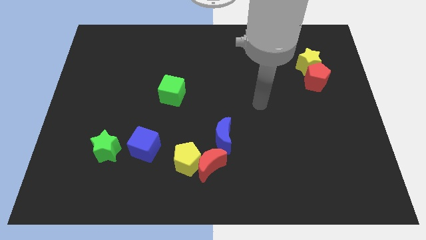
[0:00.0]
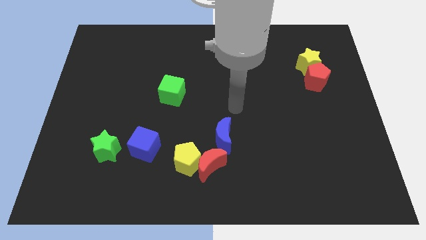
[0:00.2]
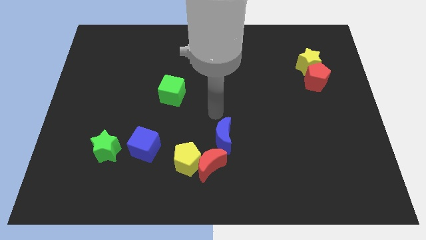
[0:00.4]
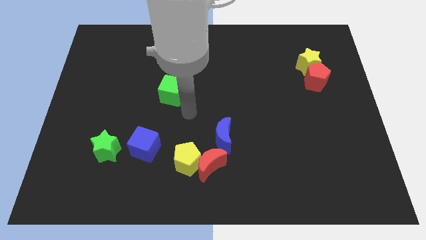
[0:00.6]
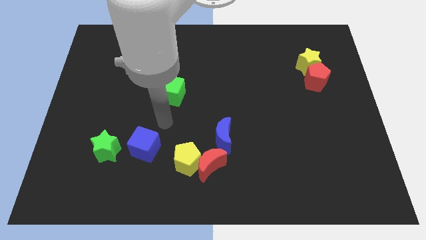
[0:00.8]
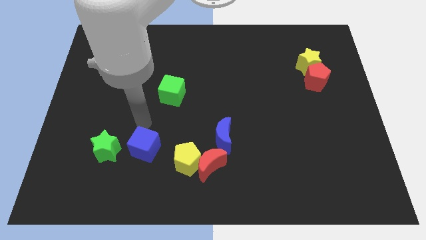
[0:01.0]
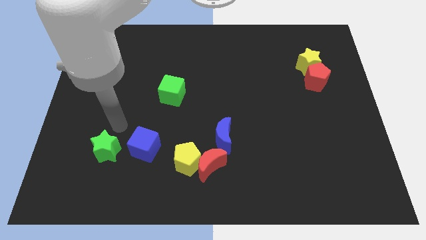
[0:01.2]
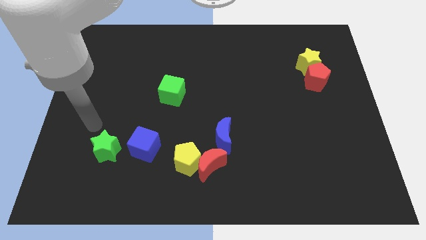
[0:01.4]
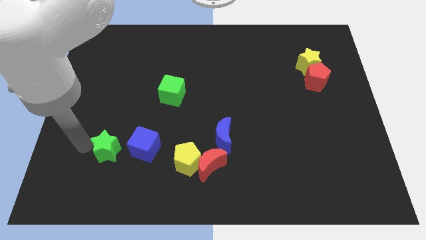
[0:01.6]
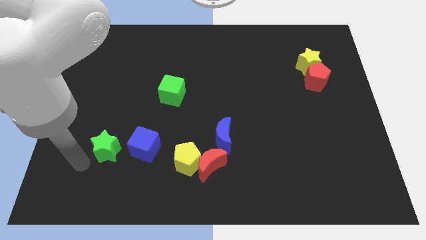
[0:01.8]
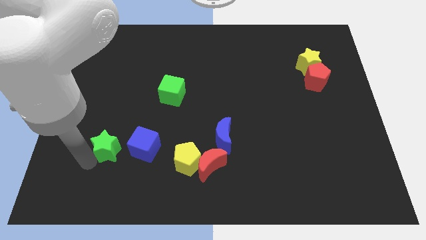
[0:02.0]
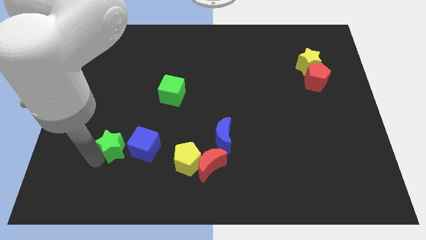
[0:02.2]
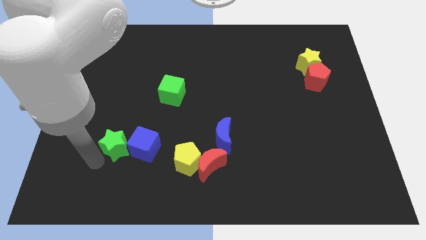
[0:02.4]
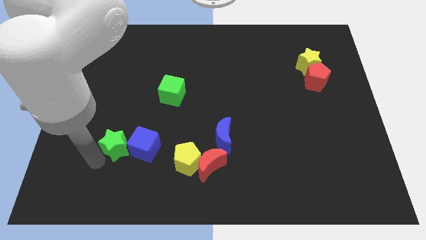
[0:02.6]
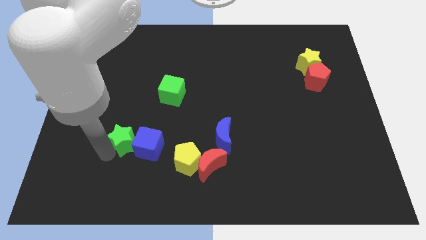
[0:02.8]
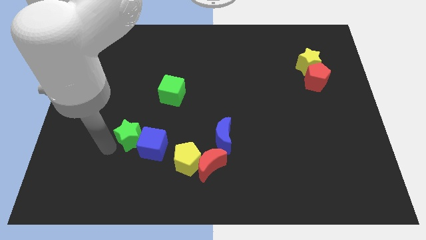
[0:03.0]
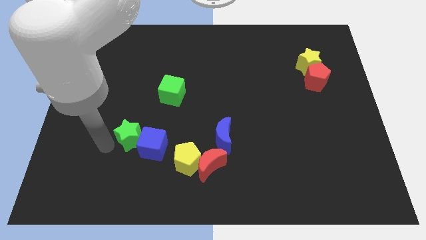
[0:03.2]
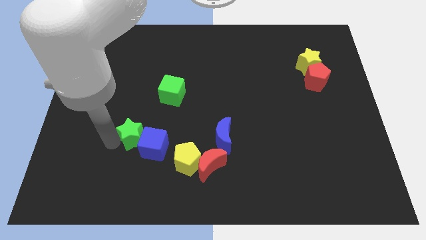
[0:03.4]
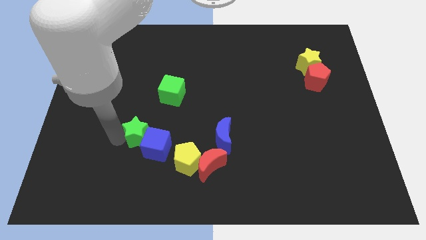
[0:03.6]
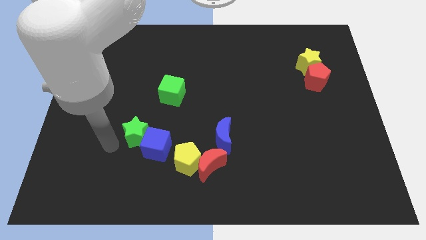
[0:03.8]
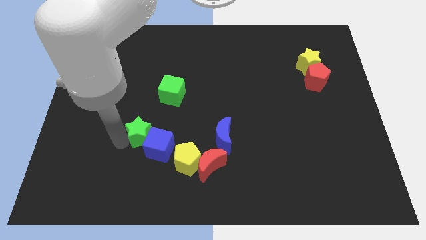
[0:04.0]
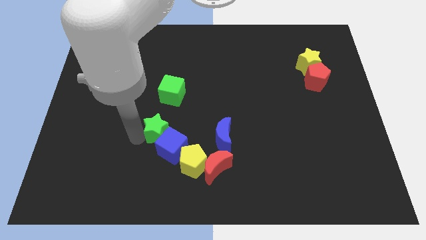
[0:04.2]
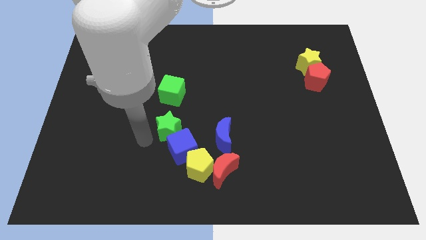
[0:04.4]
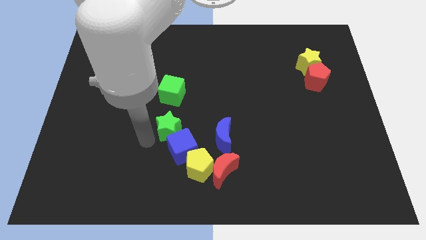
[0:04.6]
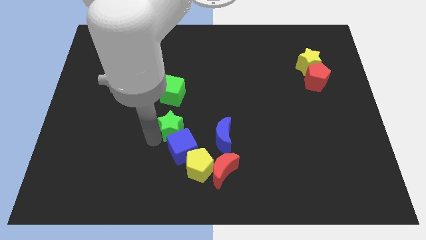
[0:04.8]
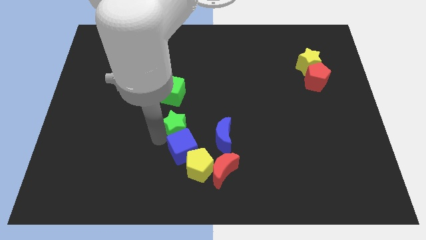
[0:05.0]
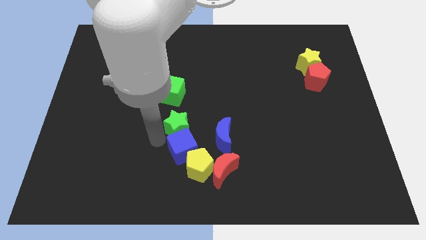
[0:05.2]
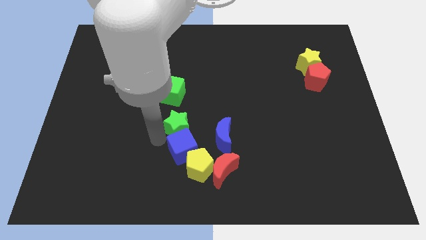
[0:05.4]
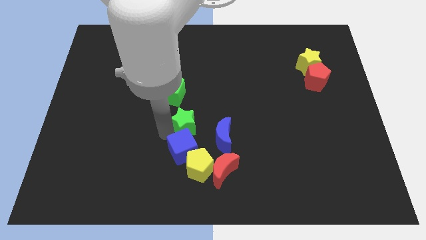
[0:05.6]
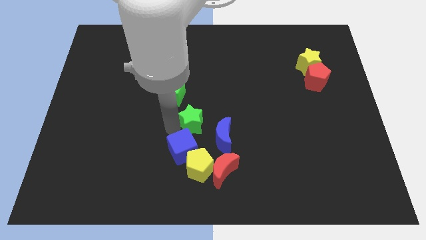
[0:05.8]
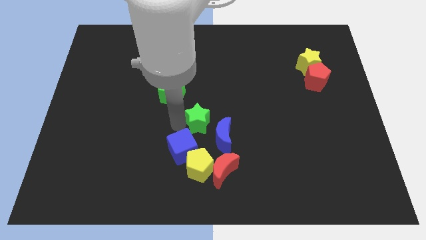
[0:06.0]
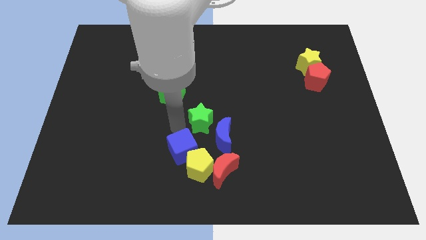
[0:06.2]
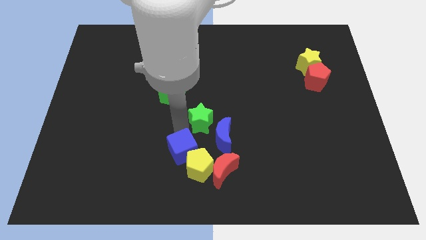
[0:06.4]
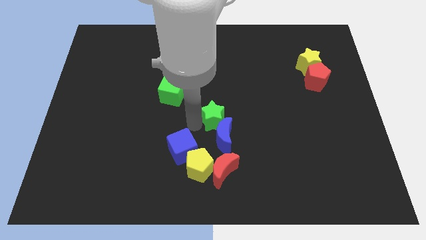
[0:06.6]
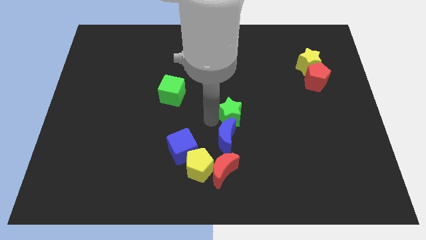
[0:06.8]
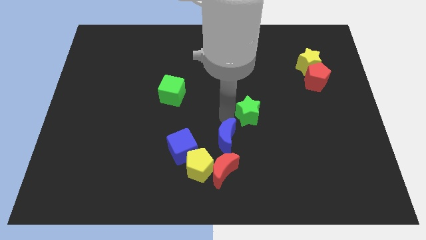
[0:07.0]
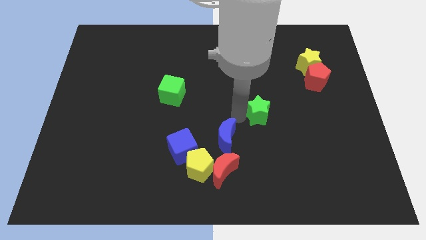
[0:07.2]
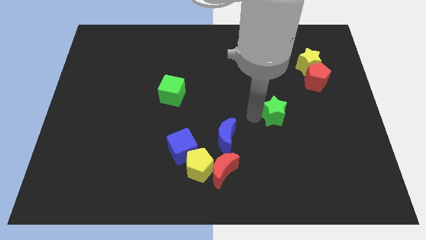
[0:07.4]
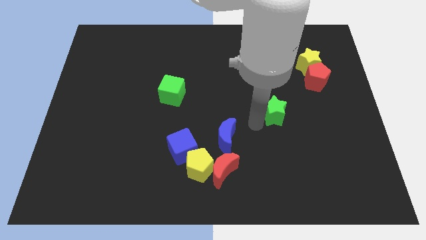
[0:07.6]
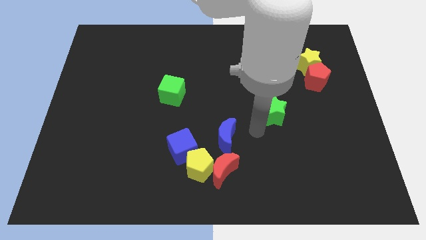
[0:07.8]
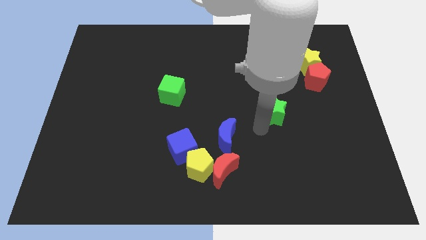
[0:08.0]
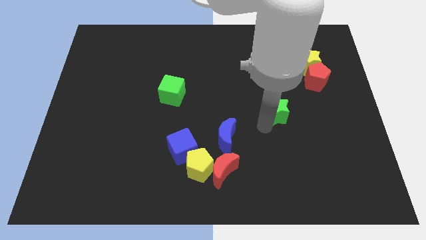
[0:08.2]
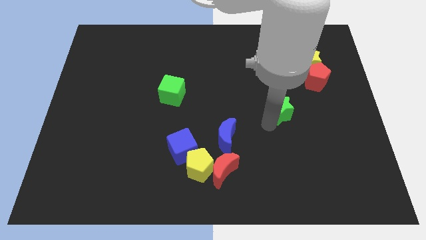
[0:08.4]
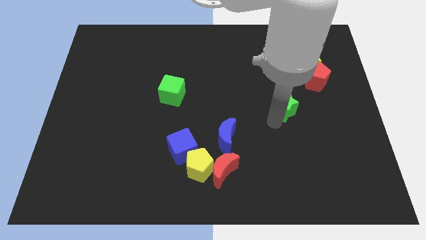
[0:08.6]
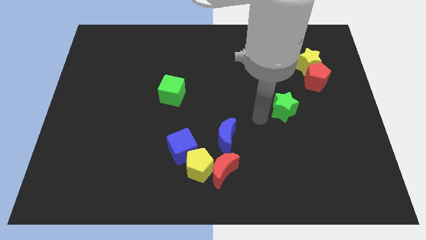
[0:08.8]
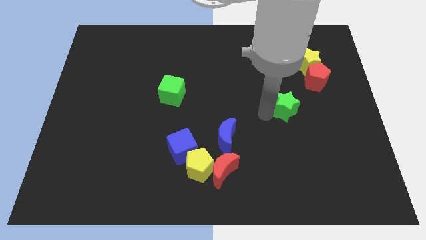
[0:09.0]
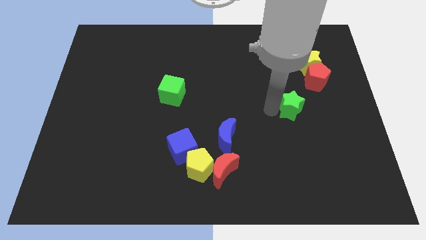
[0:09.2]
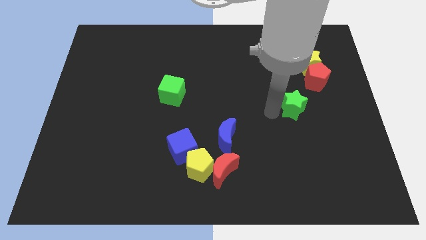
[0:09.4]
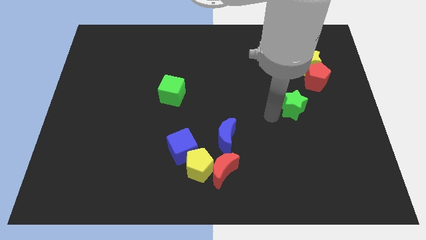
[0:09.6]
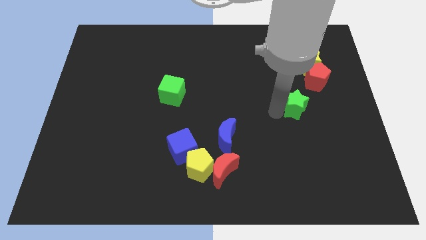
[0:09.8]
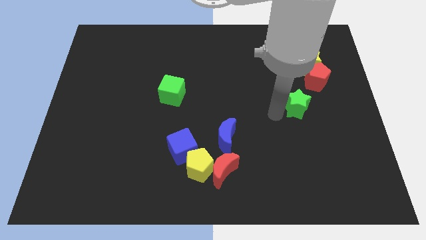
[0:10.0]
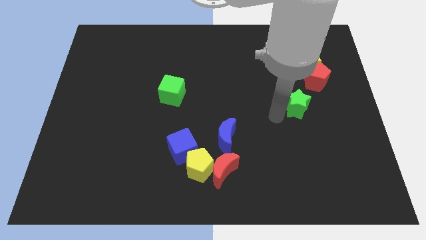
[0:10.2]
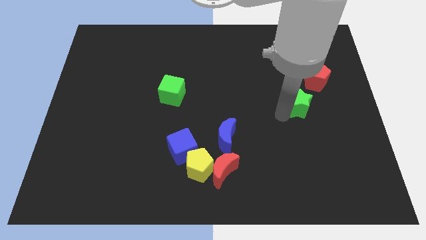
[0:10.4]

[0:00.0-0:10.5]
move the green star to the bottom side of the yellow star

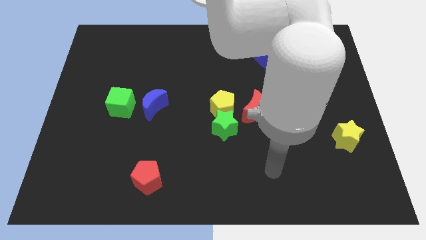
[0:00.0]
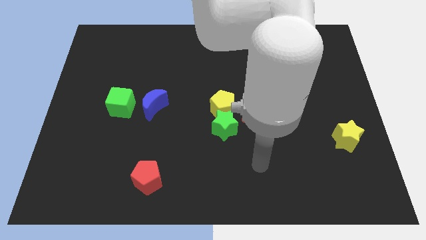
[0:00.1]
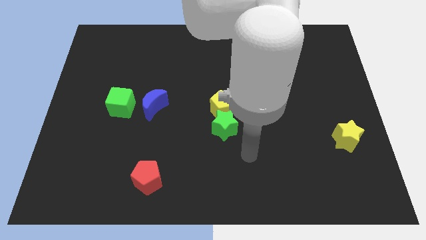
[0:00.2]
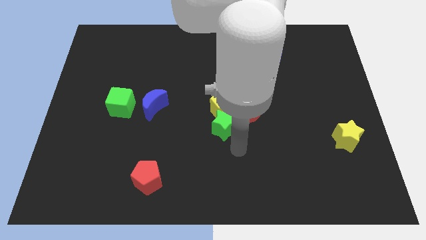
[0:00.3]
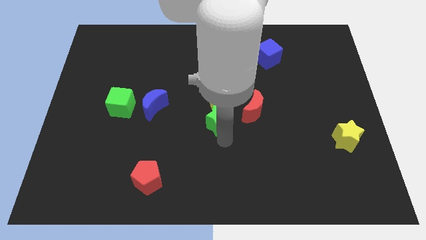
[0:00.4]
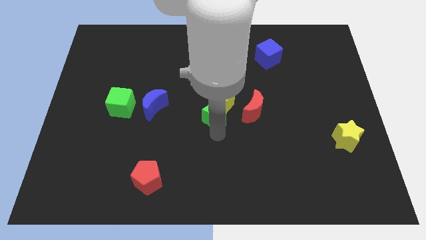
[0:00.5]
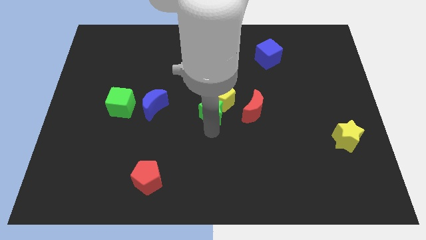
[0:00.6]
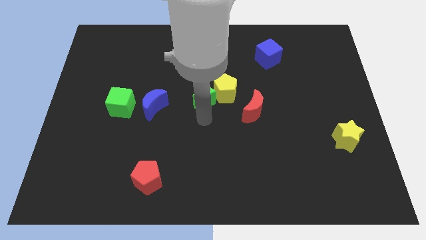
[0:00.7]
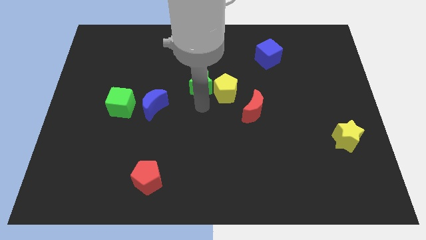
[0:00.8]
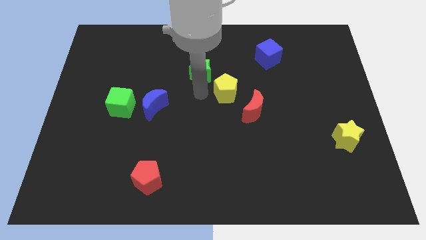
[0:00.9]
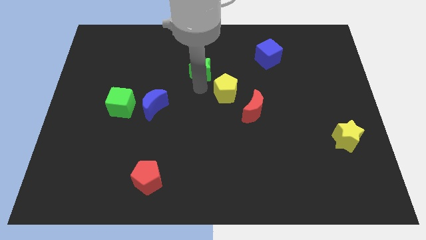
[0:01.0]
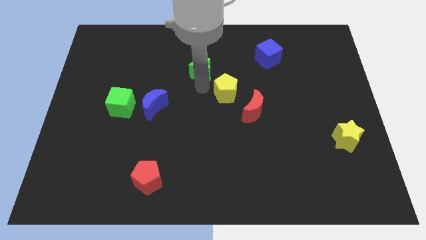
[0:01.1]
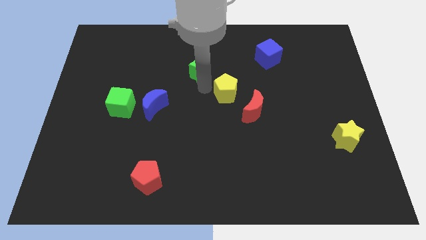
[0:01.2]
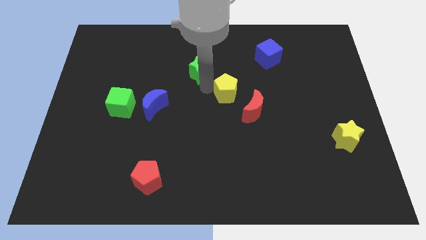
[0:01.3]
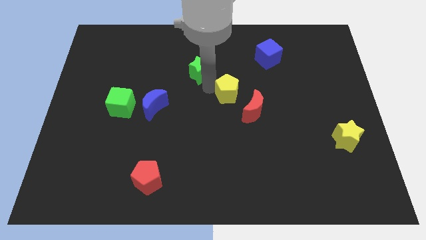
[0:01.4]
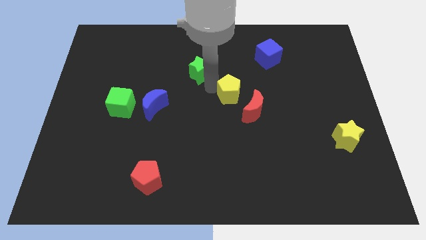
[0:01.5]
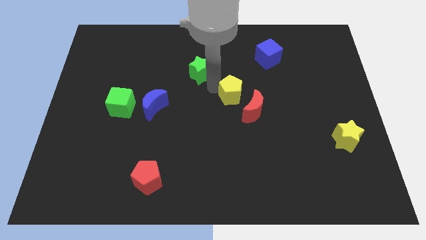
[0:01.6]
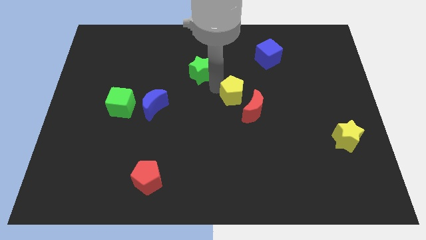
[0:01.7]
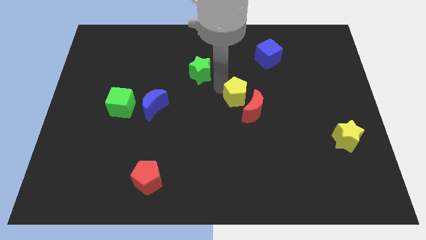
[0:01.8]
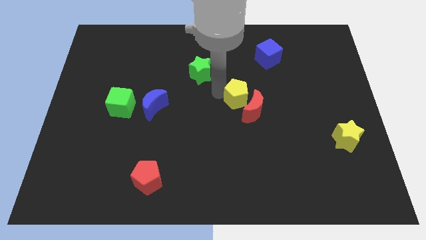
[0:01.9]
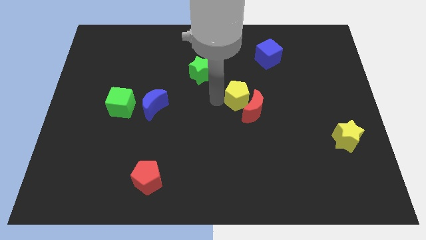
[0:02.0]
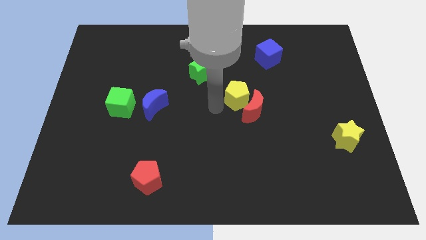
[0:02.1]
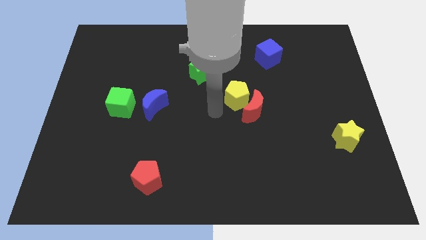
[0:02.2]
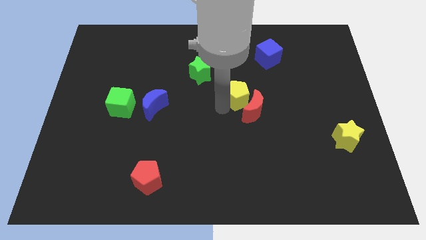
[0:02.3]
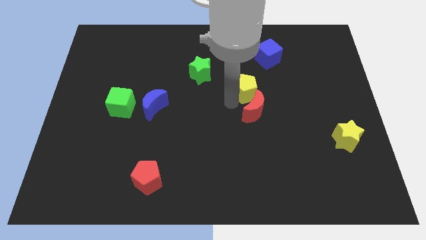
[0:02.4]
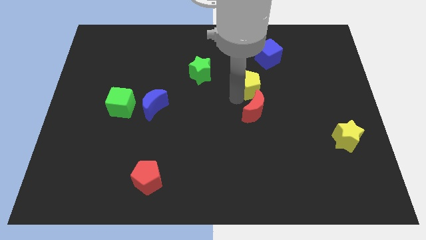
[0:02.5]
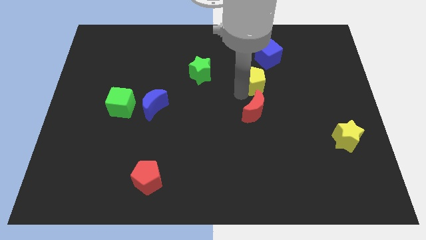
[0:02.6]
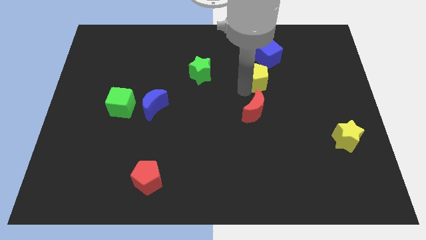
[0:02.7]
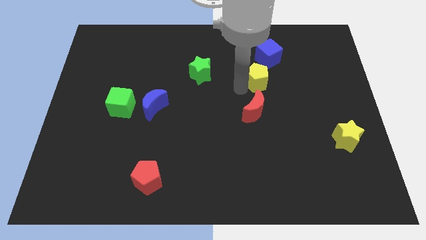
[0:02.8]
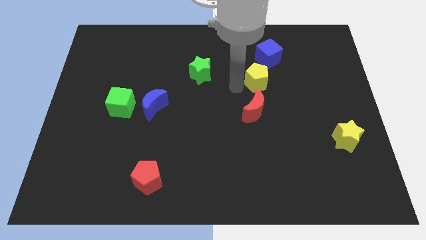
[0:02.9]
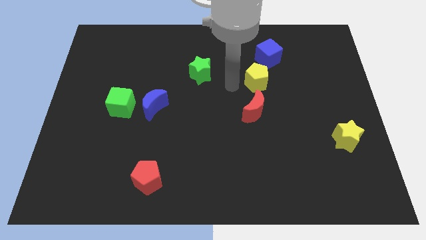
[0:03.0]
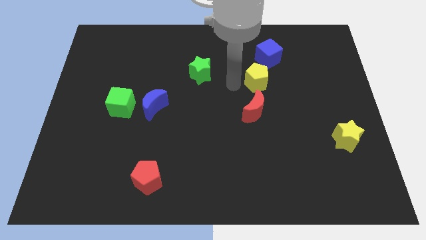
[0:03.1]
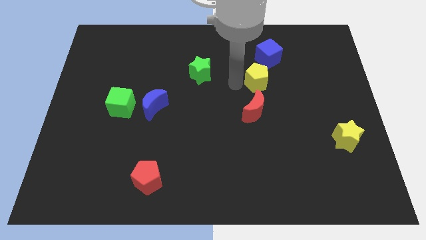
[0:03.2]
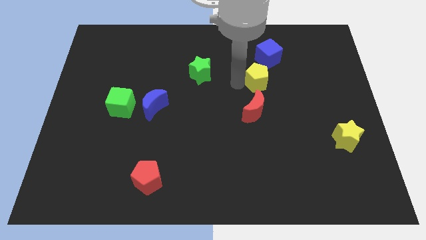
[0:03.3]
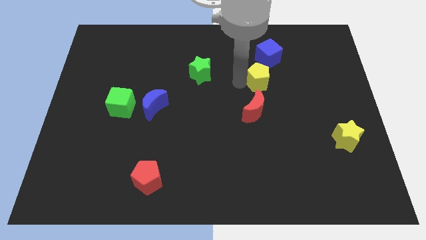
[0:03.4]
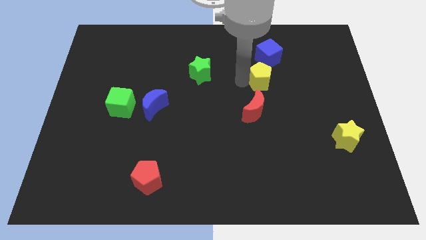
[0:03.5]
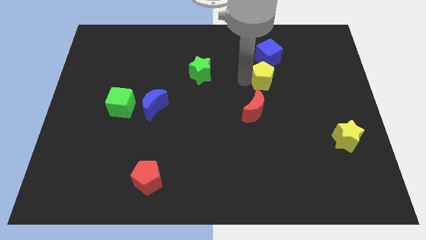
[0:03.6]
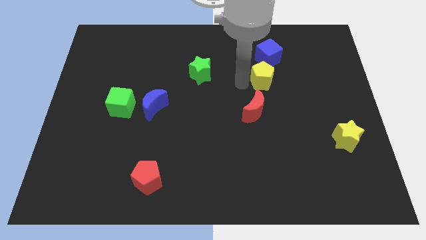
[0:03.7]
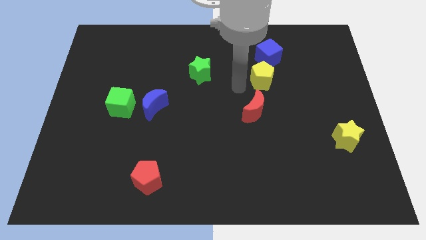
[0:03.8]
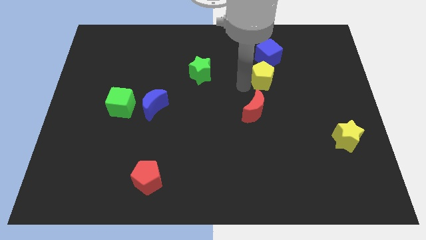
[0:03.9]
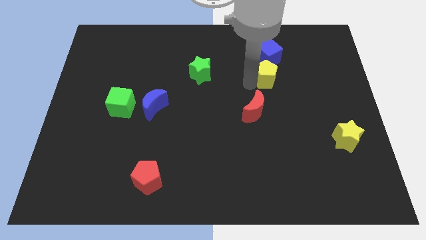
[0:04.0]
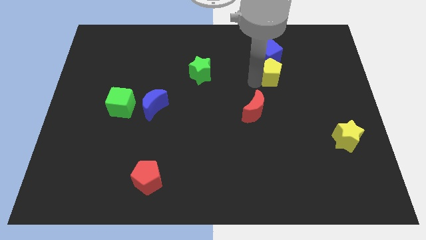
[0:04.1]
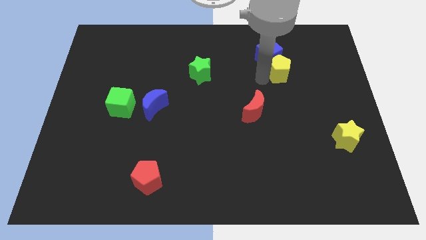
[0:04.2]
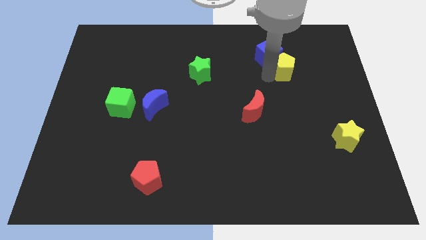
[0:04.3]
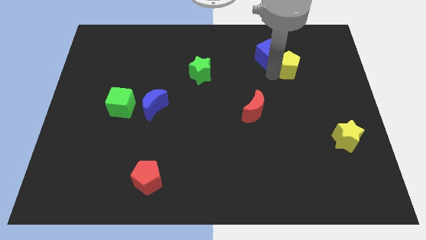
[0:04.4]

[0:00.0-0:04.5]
push the yellow pentagon to the right side of the blue cube
